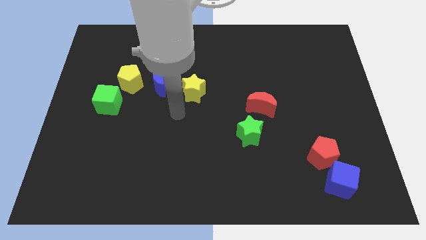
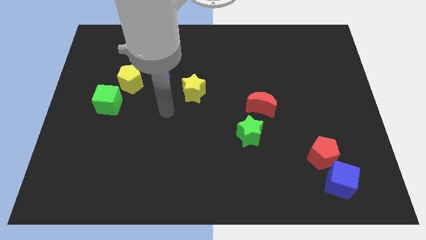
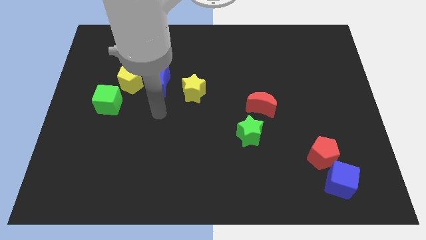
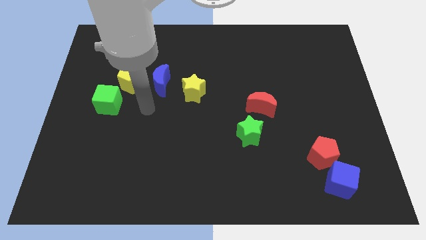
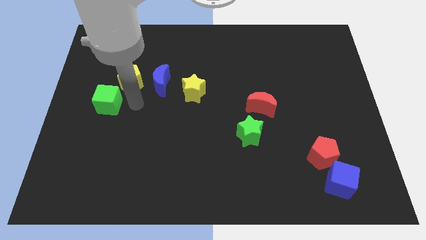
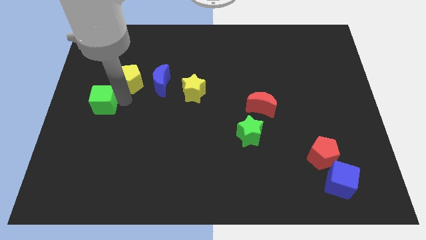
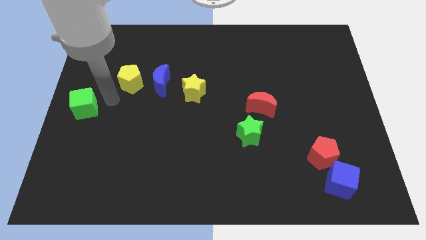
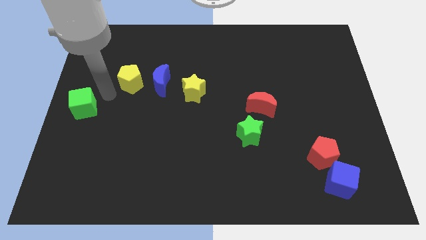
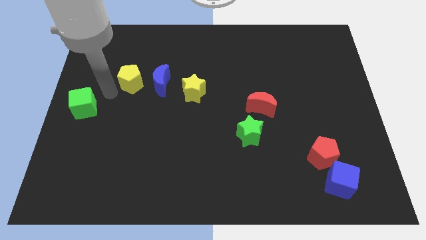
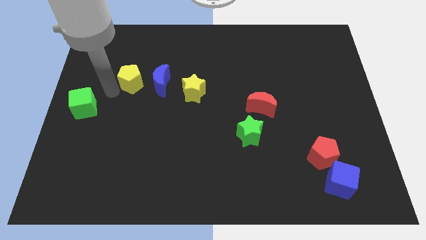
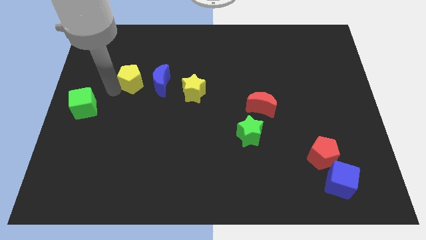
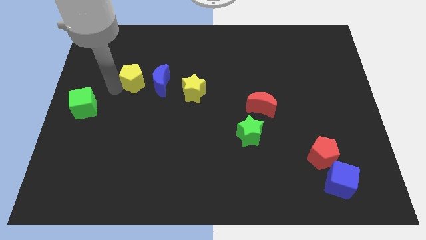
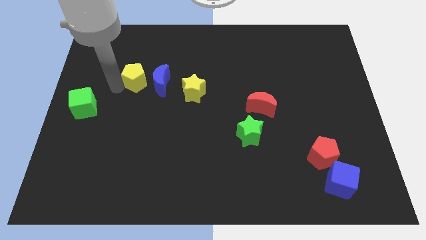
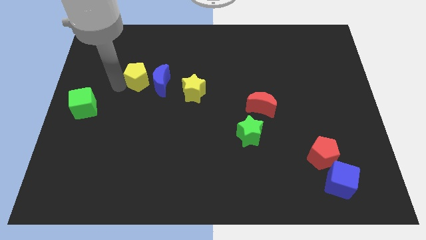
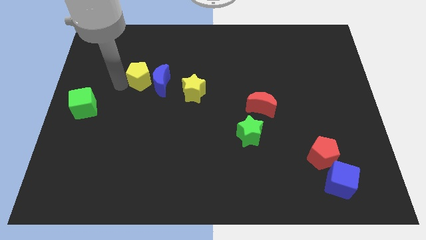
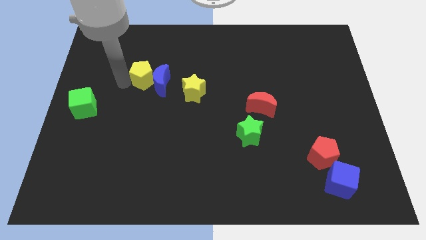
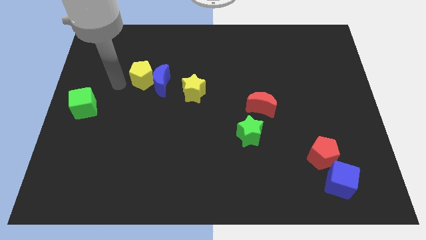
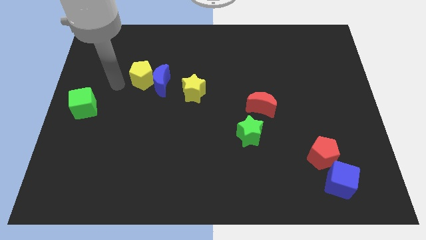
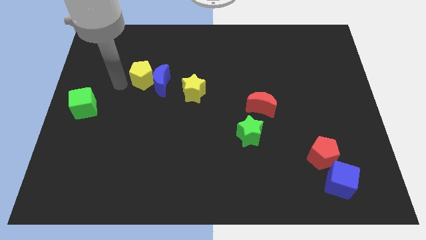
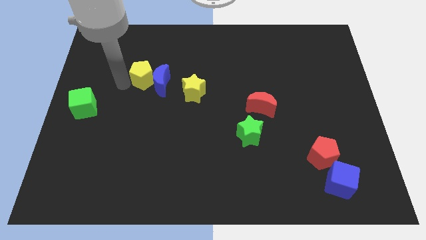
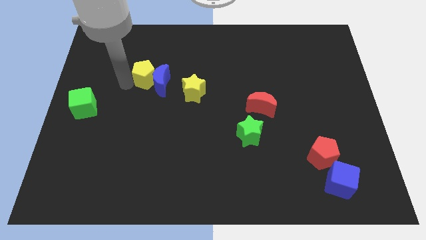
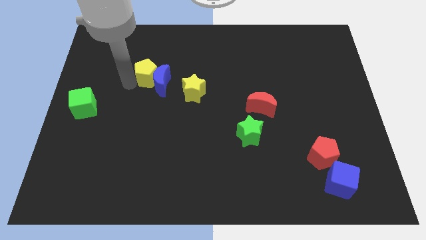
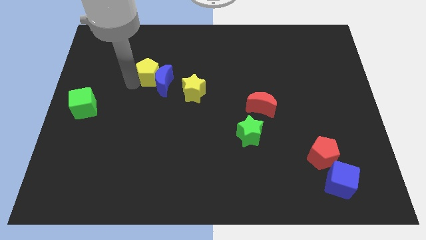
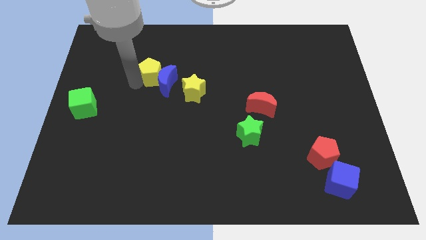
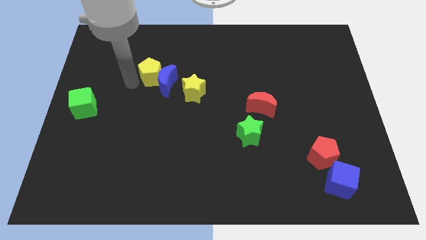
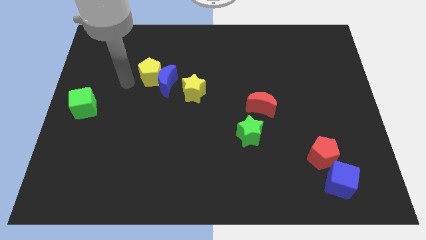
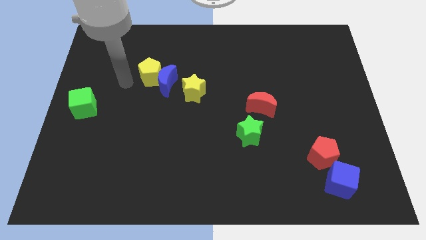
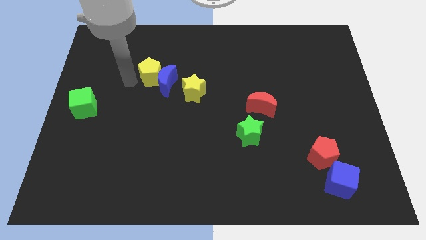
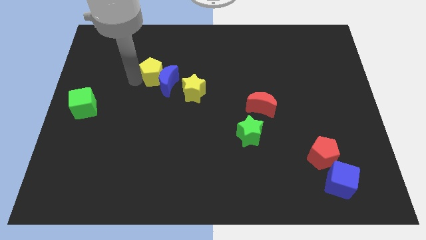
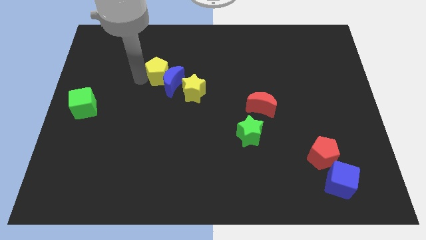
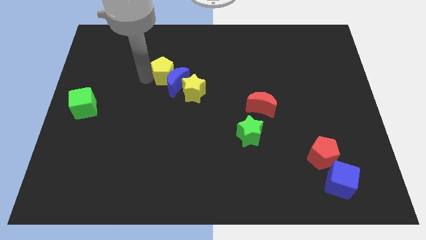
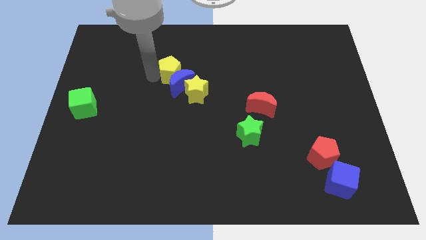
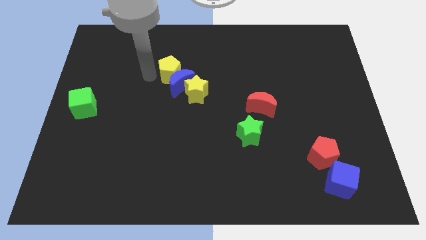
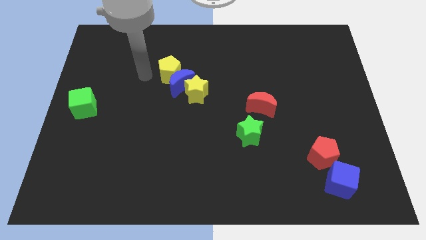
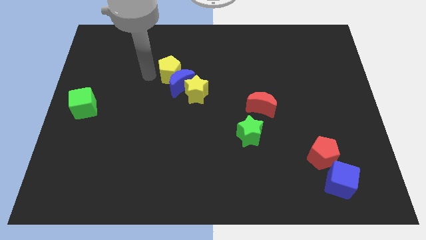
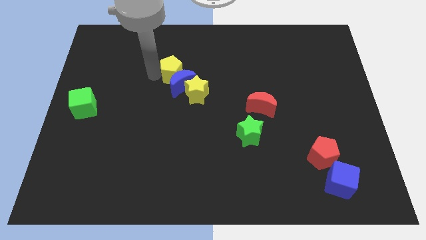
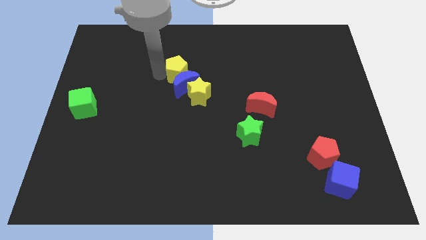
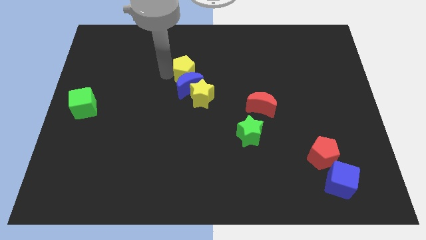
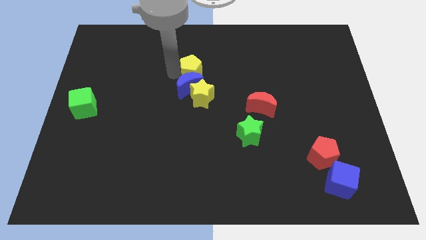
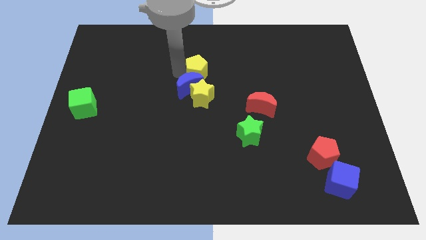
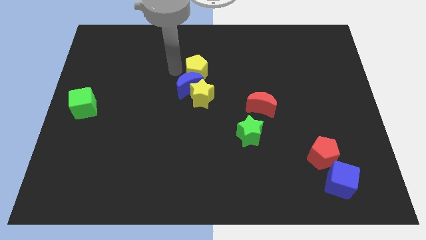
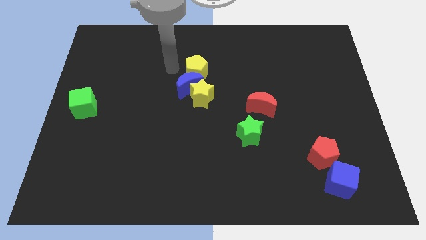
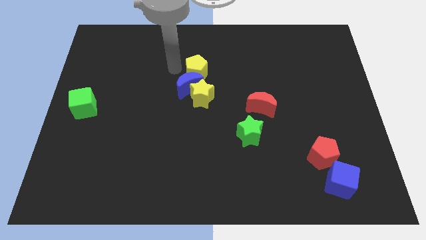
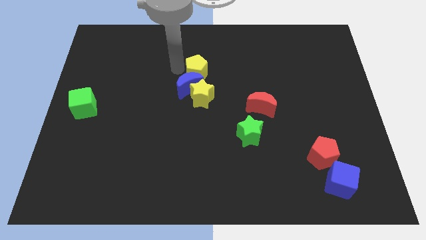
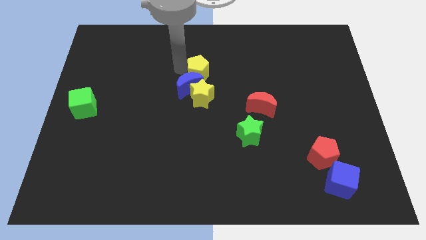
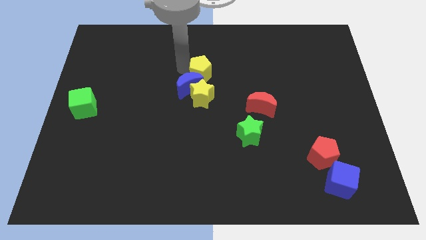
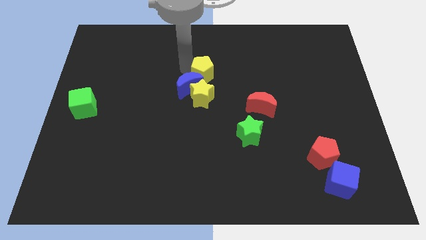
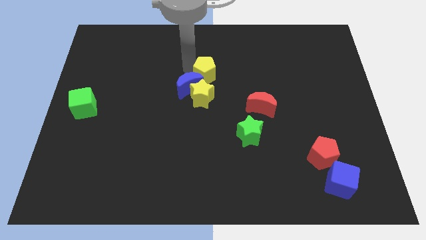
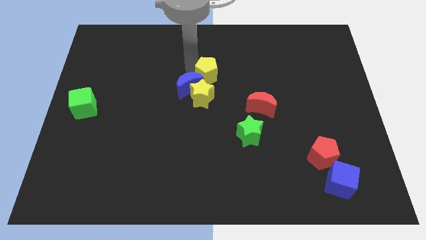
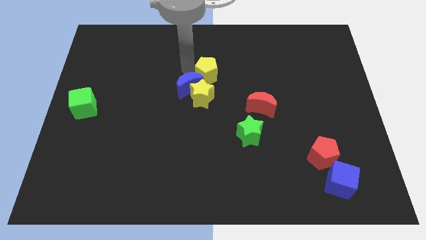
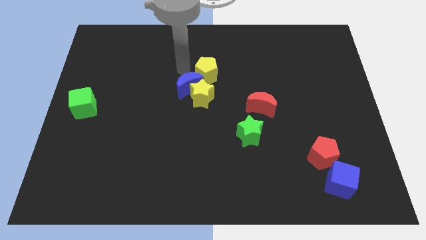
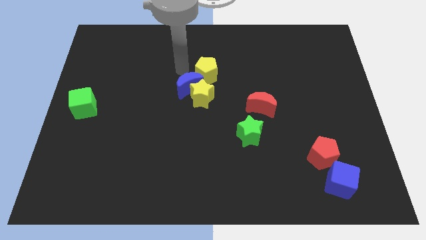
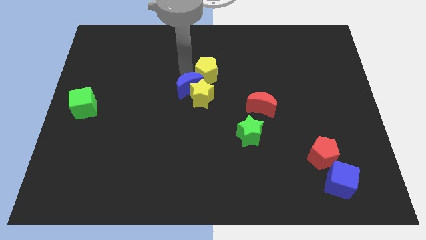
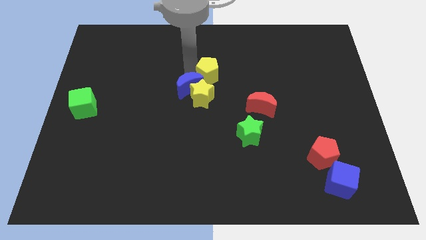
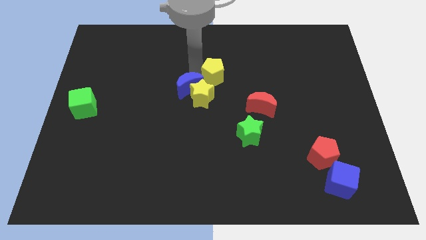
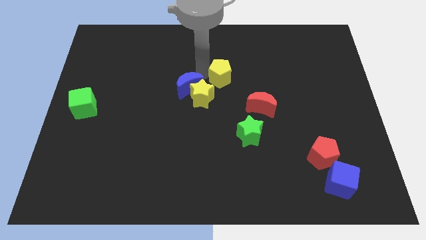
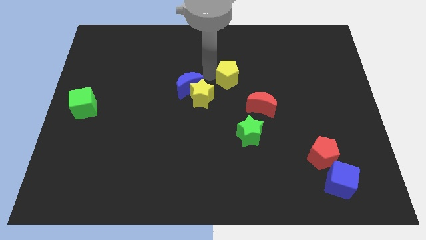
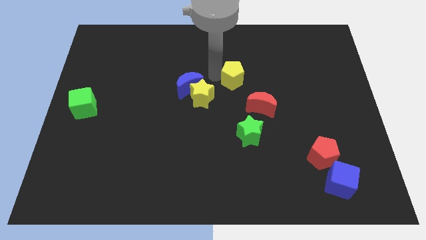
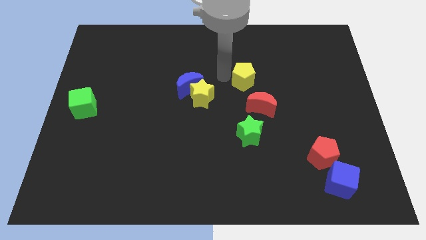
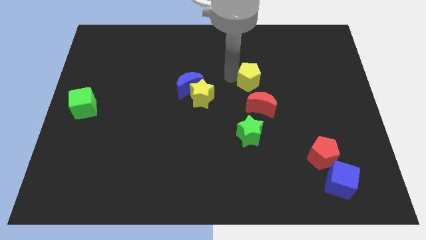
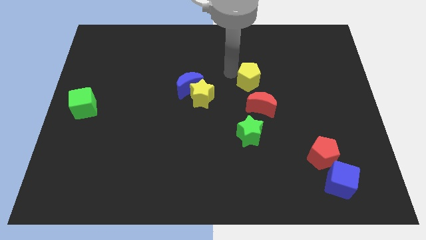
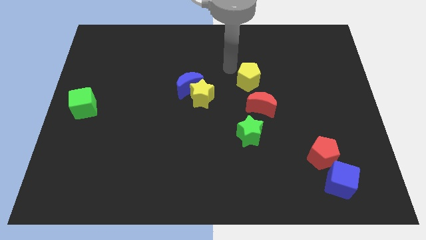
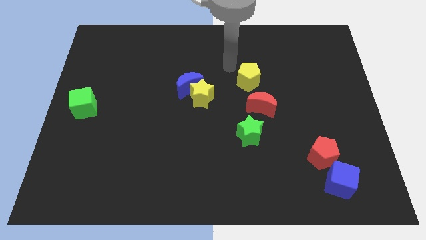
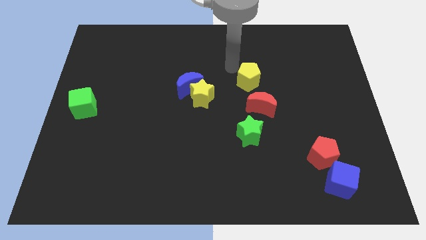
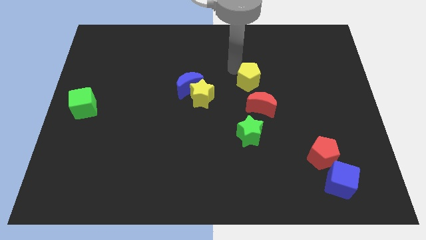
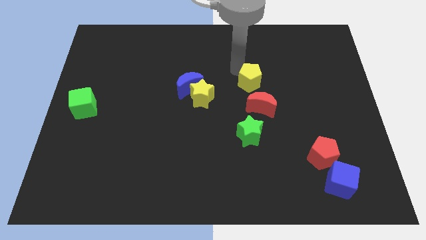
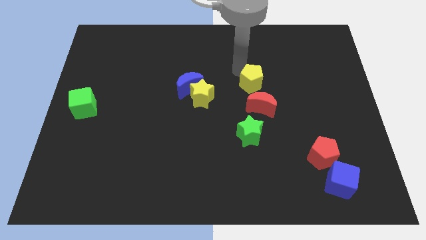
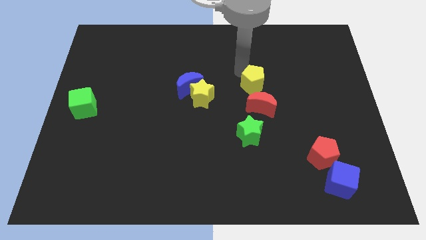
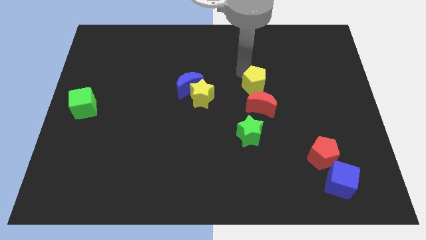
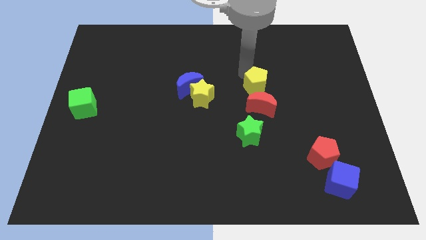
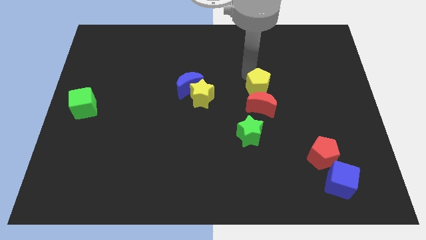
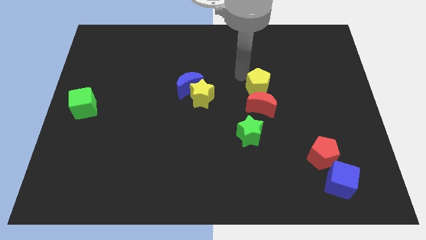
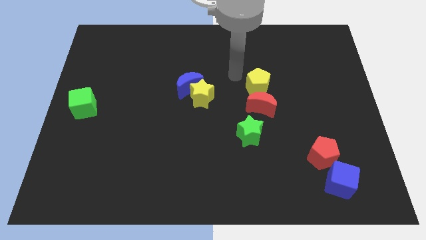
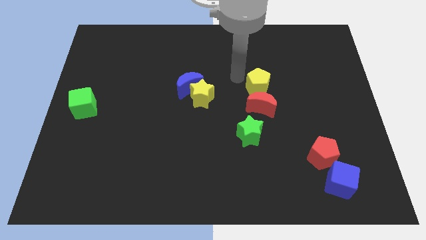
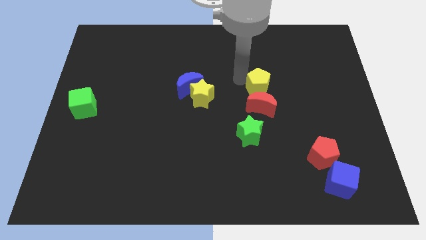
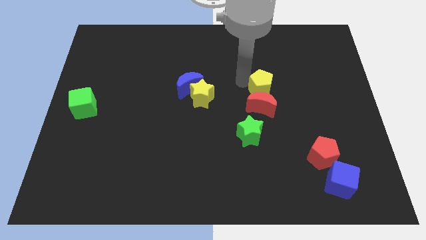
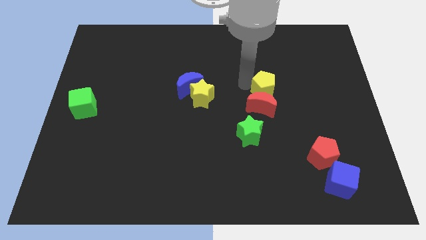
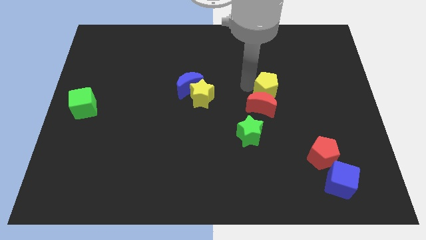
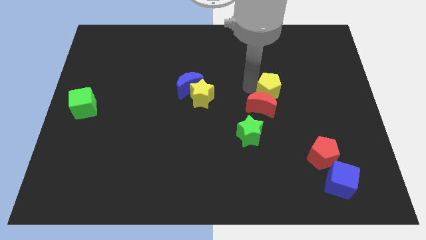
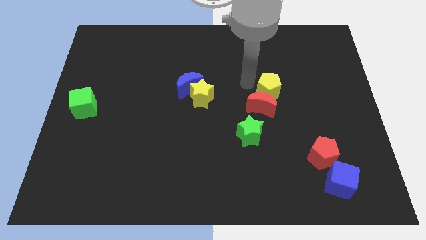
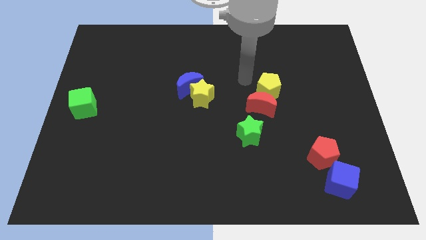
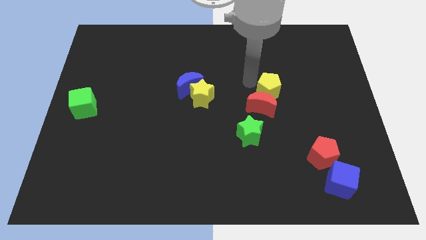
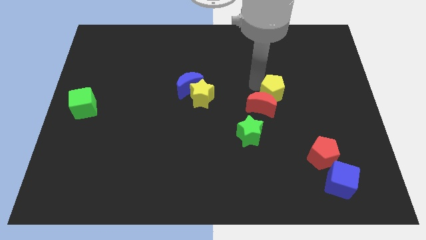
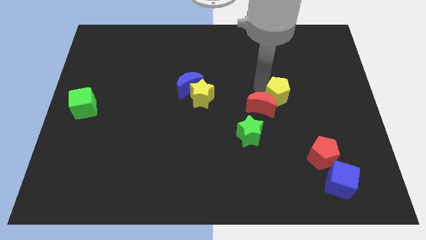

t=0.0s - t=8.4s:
move the yellow pentagon to the right of the red moon
